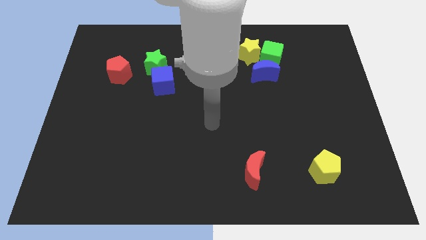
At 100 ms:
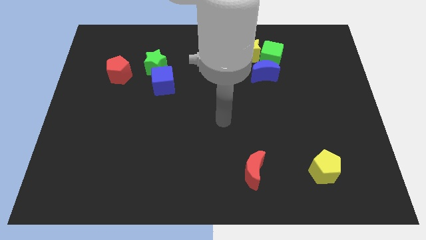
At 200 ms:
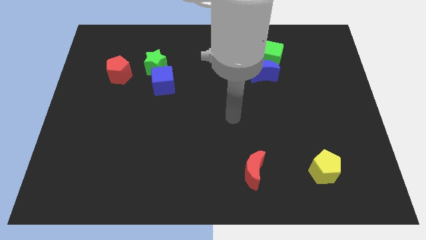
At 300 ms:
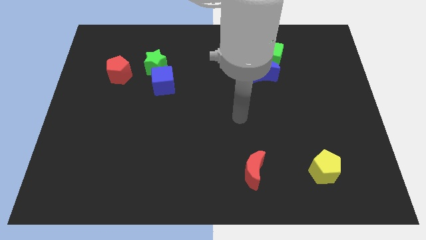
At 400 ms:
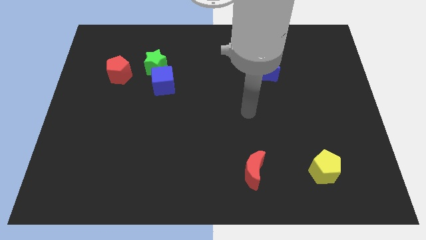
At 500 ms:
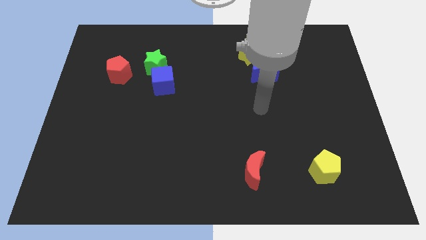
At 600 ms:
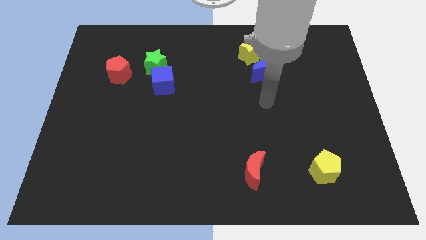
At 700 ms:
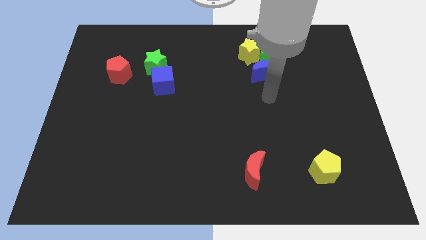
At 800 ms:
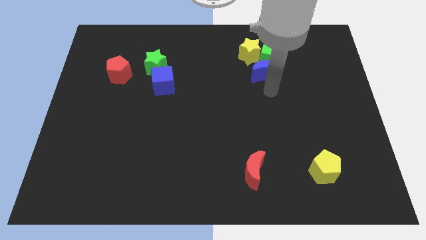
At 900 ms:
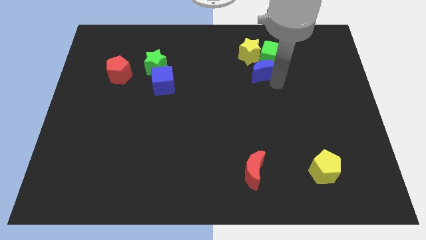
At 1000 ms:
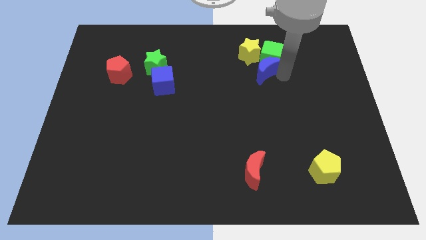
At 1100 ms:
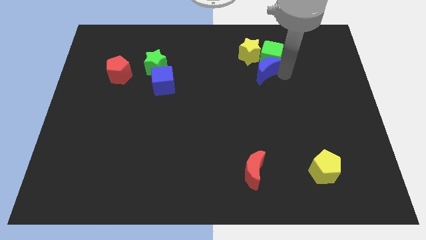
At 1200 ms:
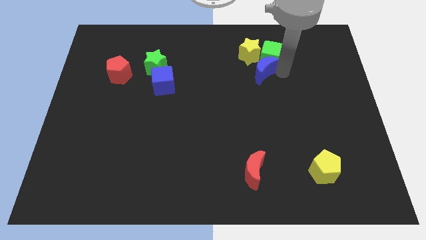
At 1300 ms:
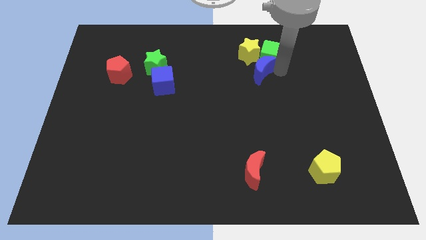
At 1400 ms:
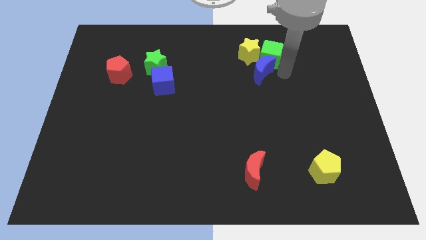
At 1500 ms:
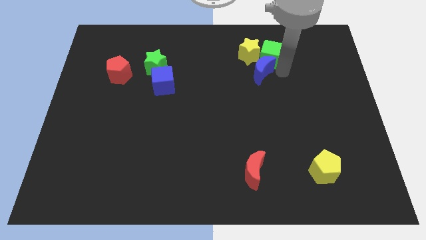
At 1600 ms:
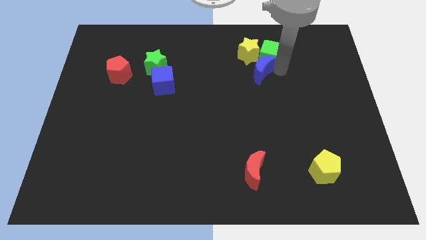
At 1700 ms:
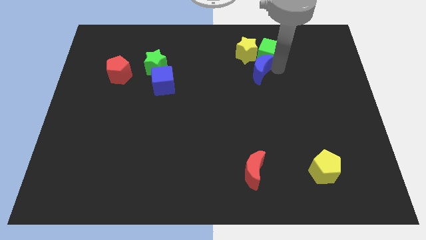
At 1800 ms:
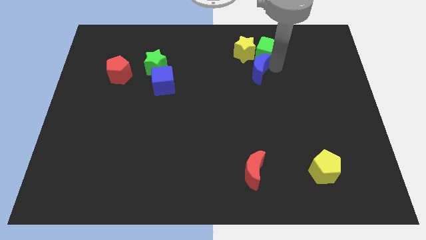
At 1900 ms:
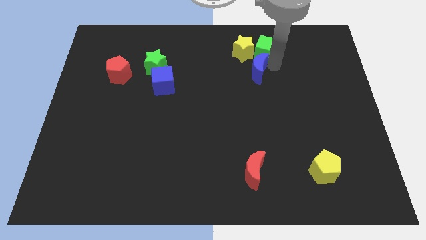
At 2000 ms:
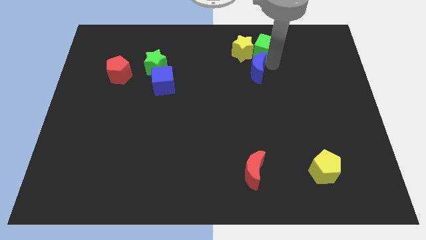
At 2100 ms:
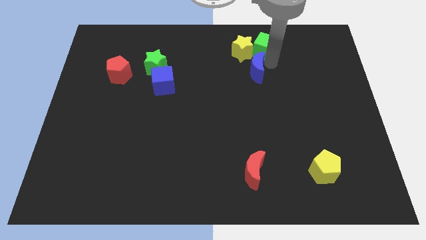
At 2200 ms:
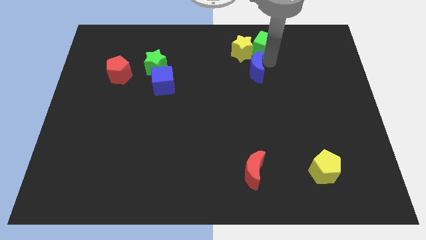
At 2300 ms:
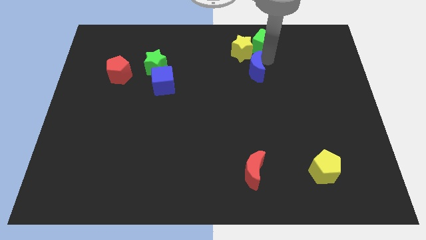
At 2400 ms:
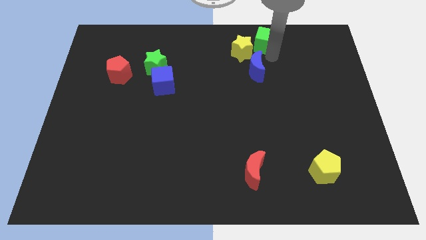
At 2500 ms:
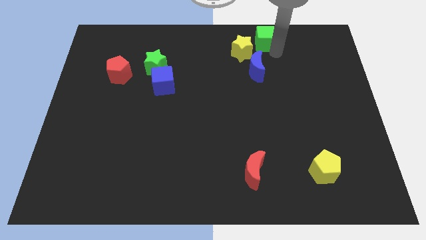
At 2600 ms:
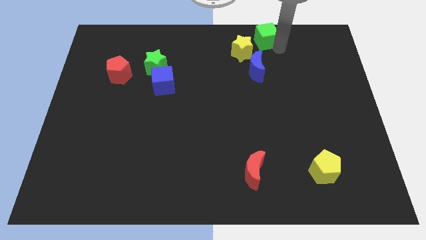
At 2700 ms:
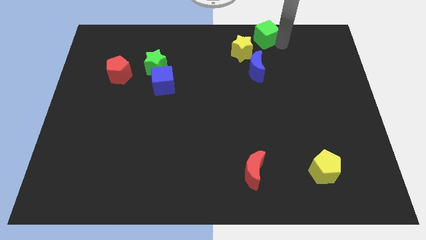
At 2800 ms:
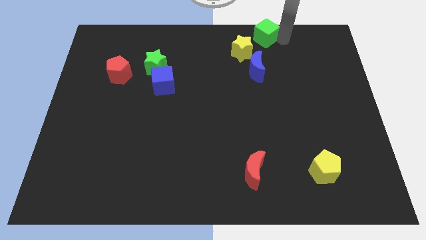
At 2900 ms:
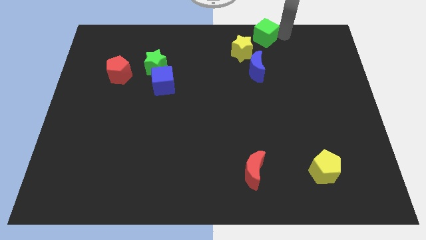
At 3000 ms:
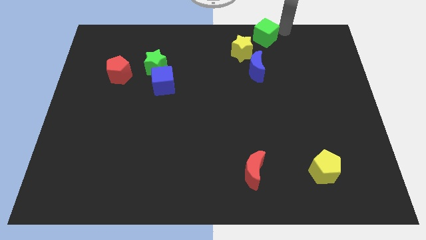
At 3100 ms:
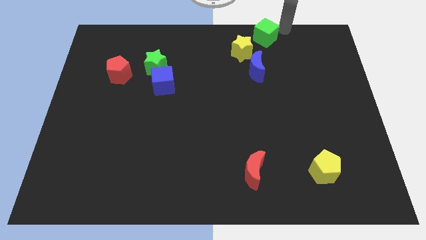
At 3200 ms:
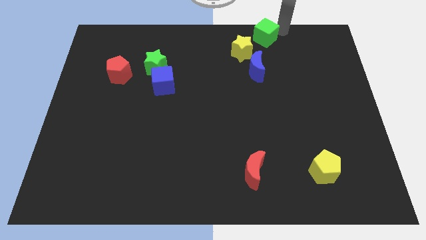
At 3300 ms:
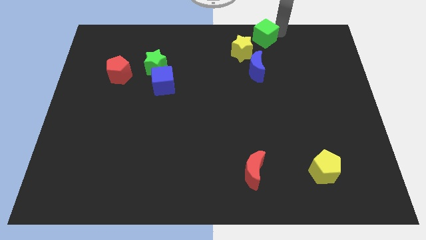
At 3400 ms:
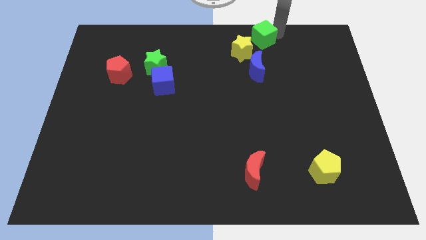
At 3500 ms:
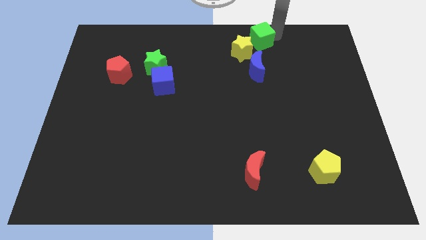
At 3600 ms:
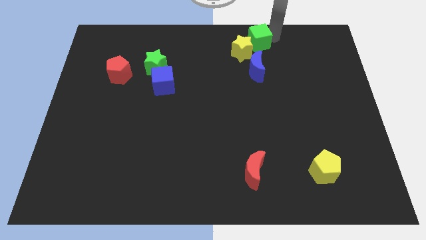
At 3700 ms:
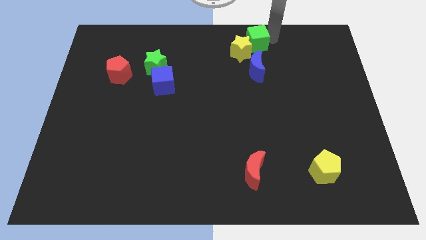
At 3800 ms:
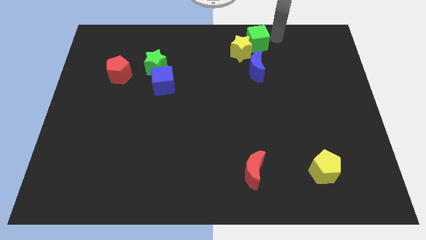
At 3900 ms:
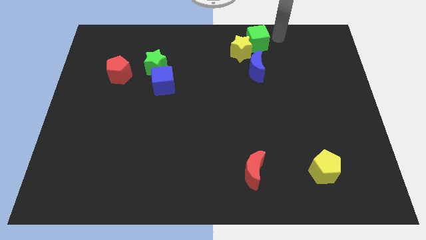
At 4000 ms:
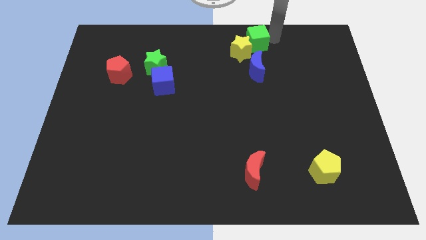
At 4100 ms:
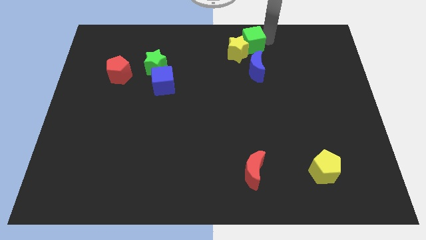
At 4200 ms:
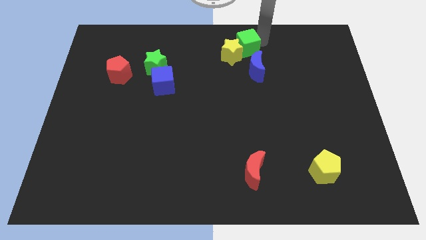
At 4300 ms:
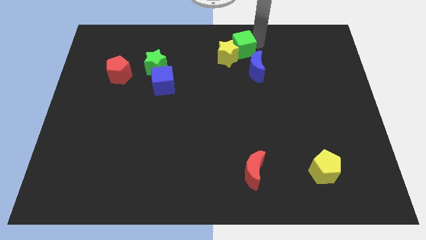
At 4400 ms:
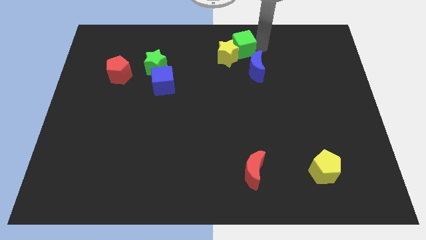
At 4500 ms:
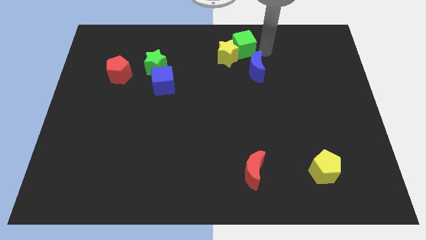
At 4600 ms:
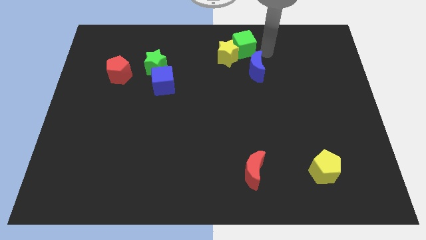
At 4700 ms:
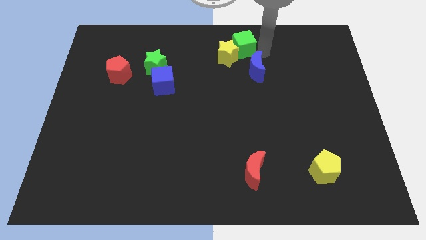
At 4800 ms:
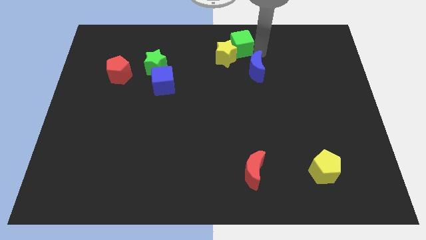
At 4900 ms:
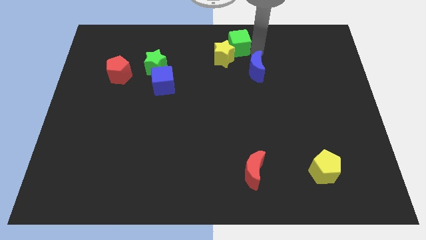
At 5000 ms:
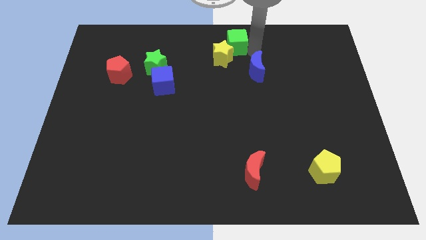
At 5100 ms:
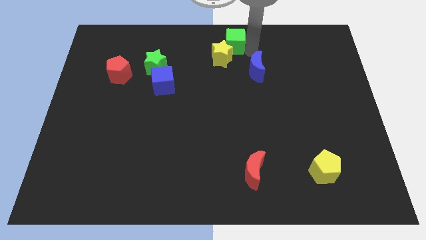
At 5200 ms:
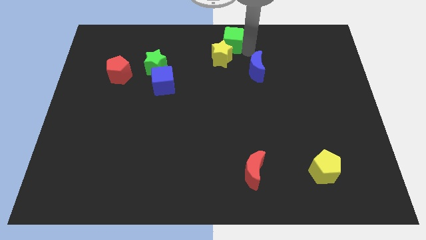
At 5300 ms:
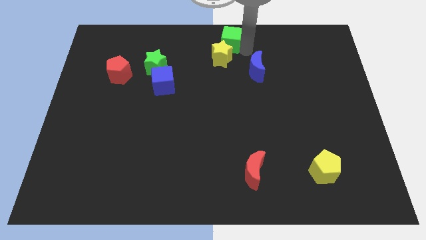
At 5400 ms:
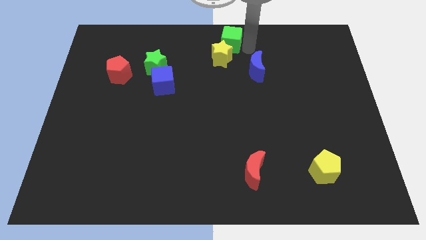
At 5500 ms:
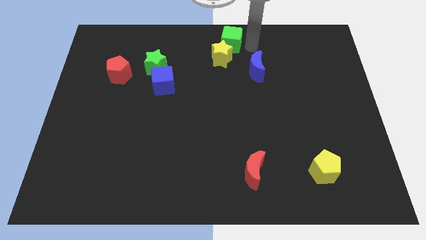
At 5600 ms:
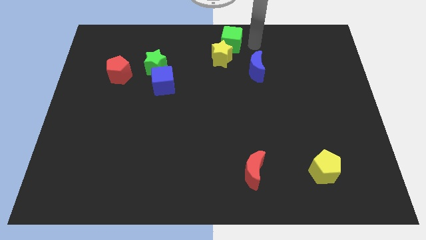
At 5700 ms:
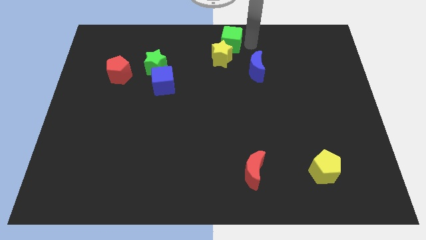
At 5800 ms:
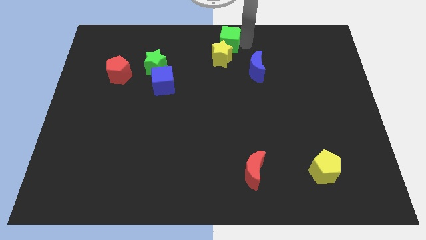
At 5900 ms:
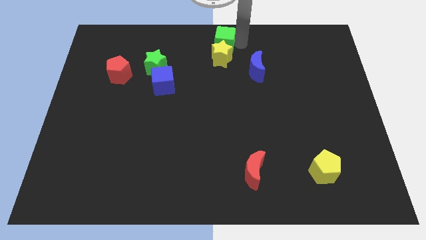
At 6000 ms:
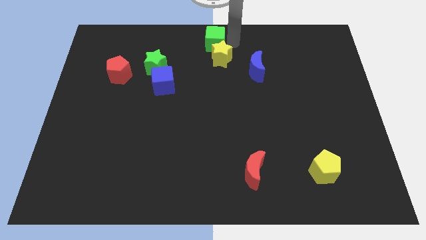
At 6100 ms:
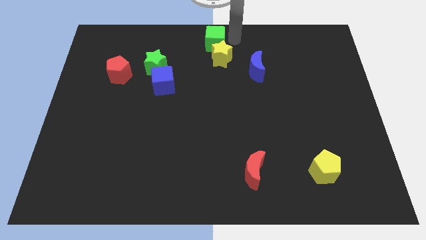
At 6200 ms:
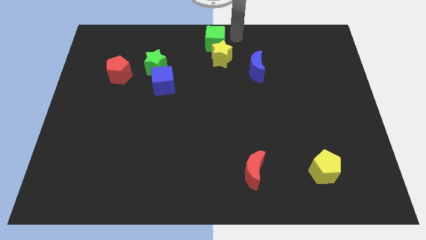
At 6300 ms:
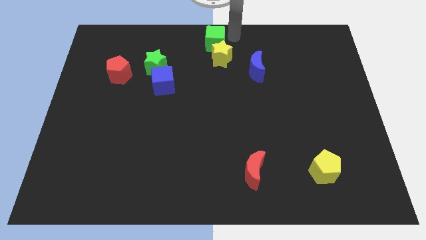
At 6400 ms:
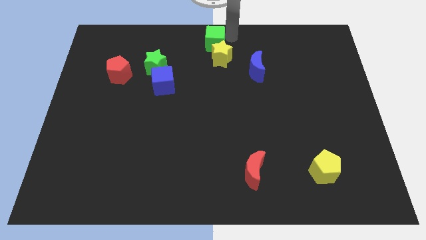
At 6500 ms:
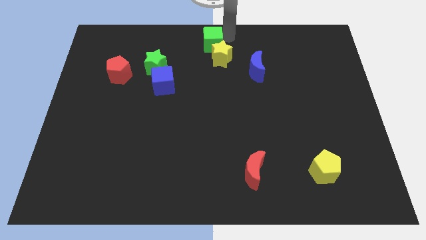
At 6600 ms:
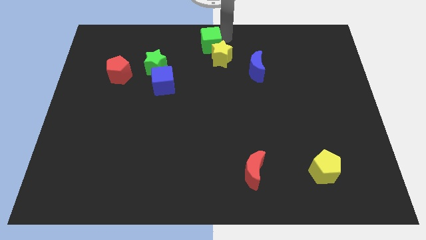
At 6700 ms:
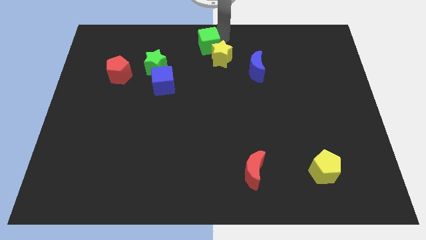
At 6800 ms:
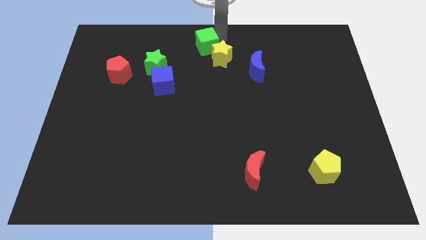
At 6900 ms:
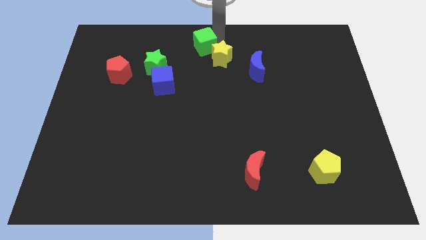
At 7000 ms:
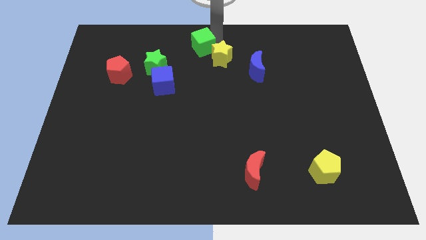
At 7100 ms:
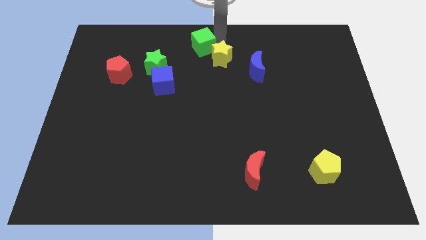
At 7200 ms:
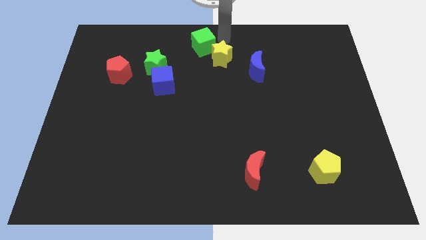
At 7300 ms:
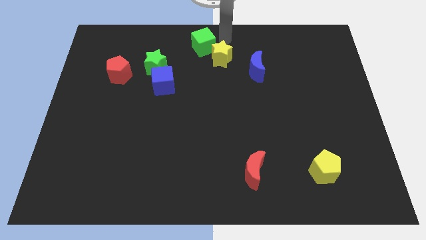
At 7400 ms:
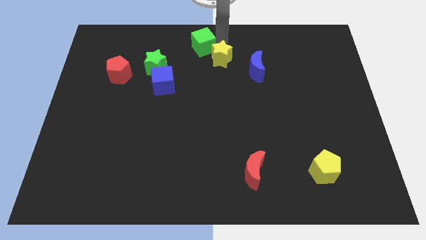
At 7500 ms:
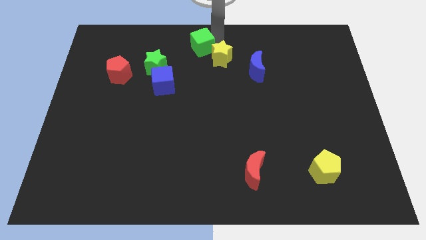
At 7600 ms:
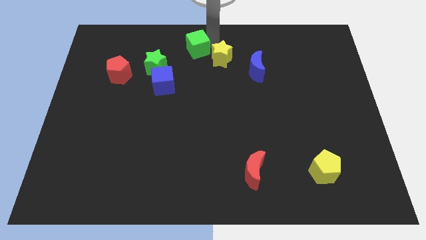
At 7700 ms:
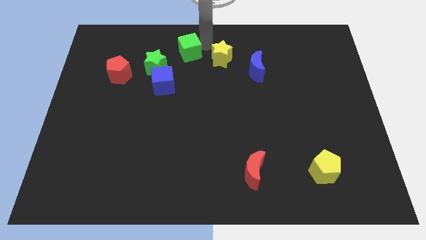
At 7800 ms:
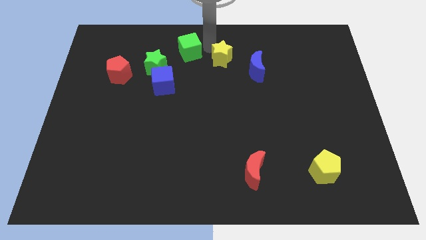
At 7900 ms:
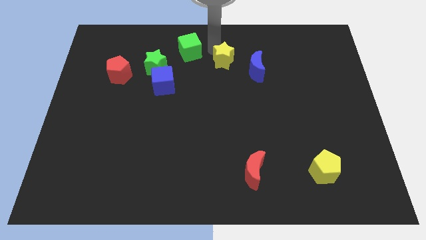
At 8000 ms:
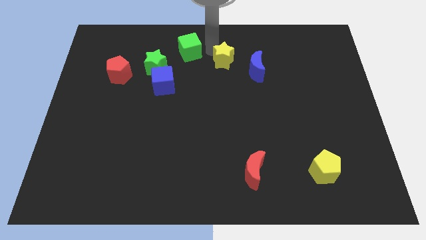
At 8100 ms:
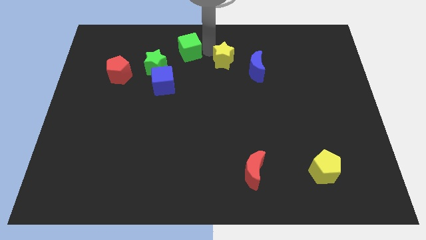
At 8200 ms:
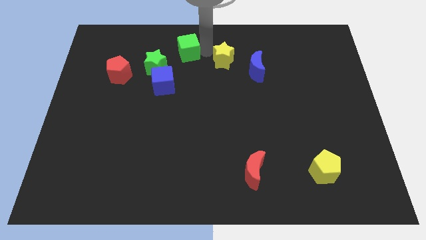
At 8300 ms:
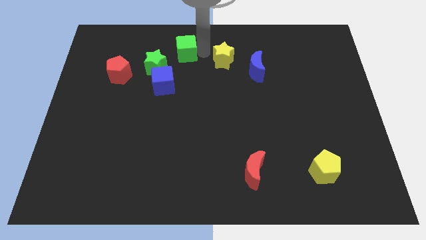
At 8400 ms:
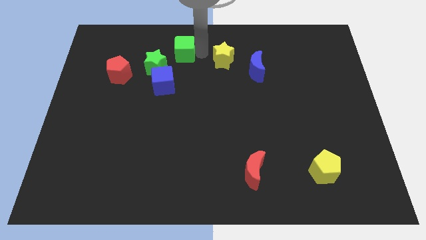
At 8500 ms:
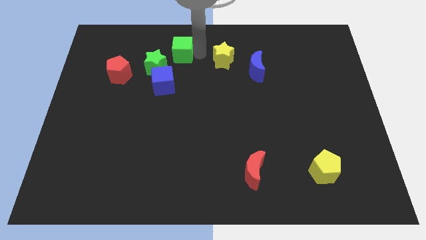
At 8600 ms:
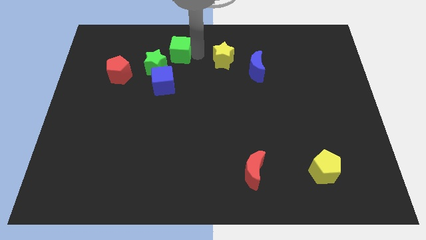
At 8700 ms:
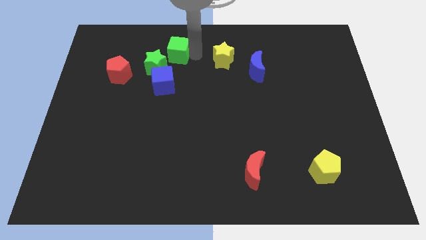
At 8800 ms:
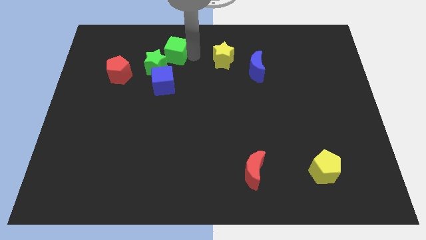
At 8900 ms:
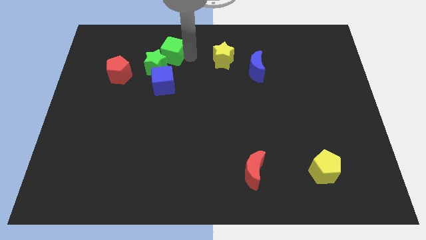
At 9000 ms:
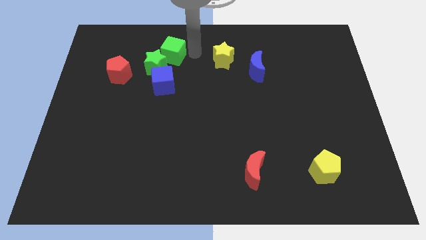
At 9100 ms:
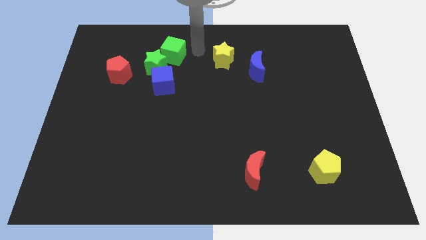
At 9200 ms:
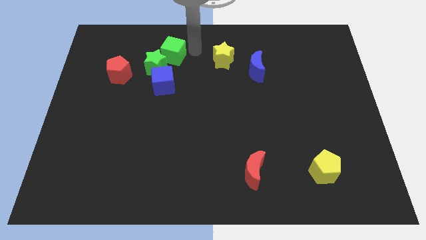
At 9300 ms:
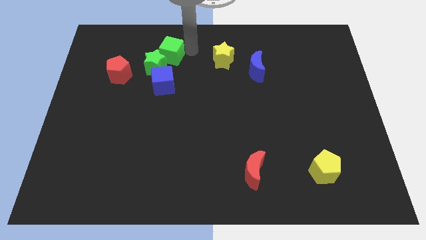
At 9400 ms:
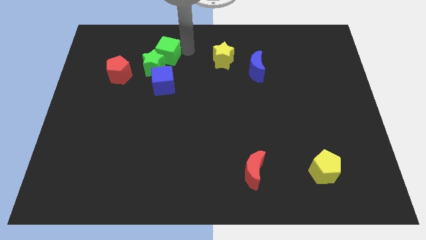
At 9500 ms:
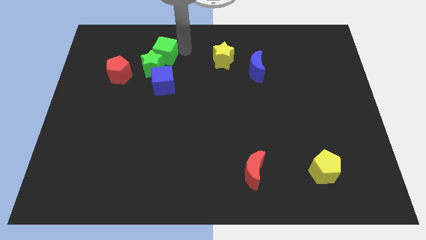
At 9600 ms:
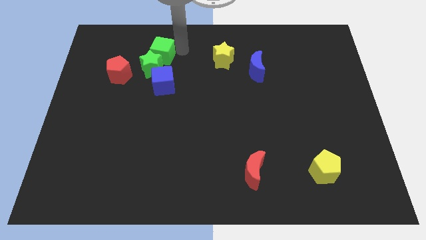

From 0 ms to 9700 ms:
put the green cube diagonally up and to the right of the red pentagon
